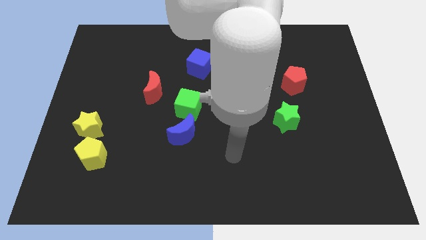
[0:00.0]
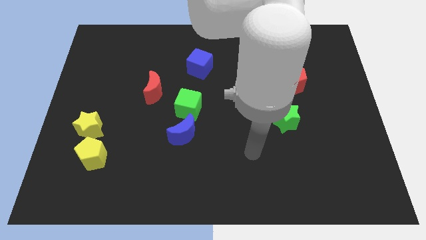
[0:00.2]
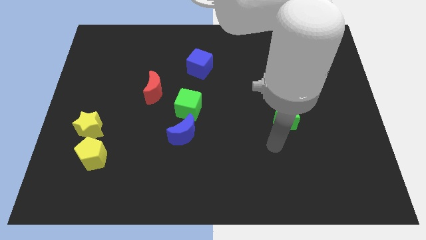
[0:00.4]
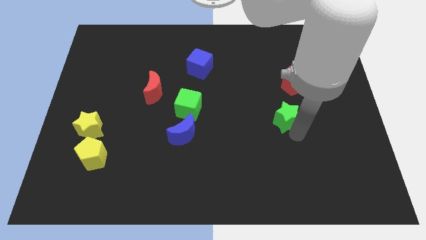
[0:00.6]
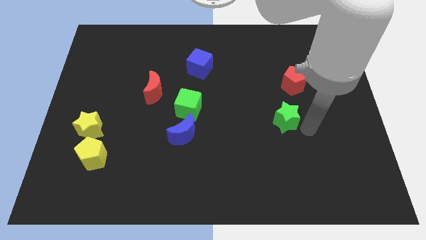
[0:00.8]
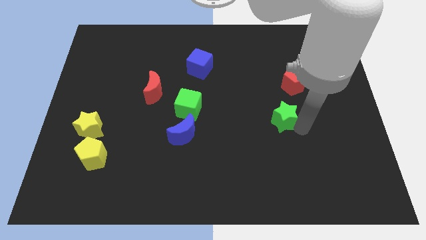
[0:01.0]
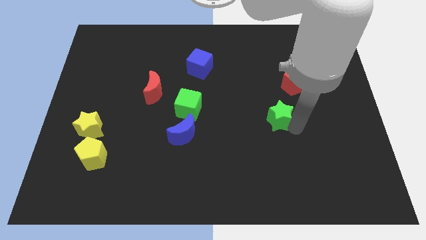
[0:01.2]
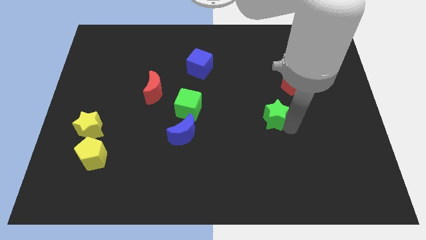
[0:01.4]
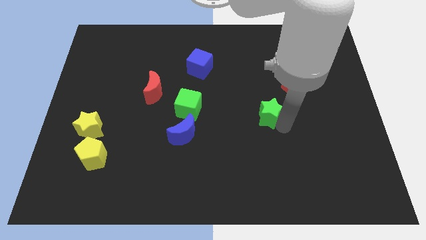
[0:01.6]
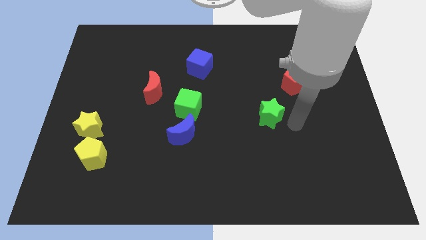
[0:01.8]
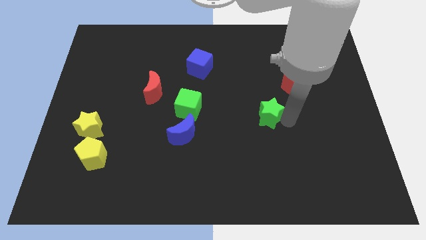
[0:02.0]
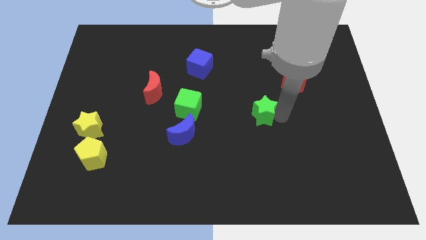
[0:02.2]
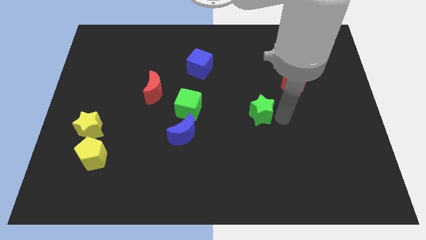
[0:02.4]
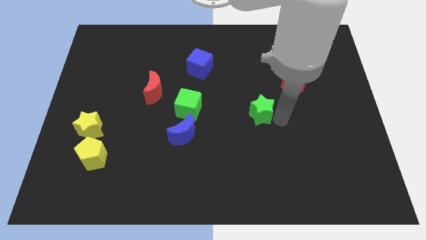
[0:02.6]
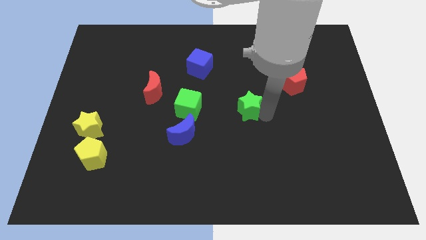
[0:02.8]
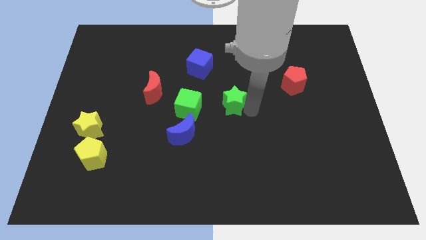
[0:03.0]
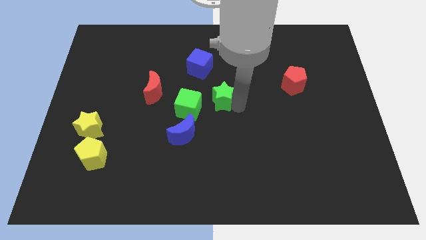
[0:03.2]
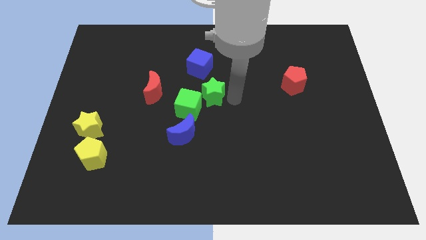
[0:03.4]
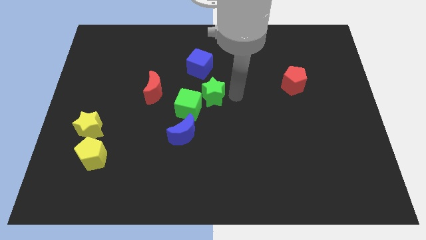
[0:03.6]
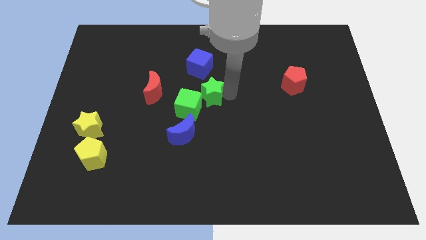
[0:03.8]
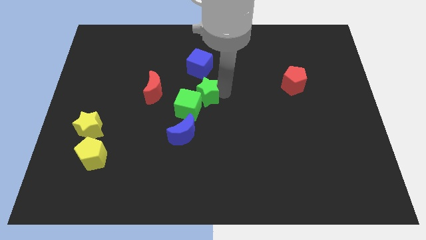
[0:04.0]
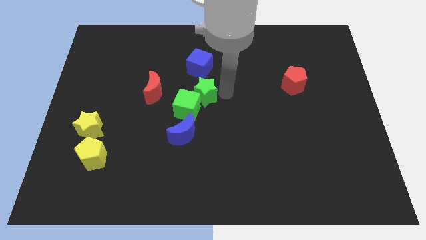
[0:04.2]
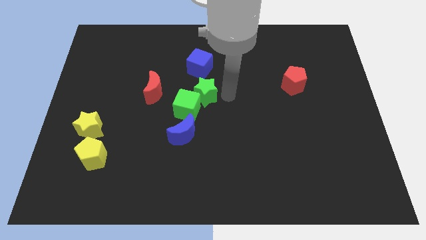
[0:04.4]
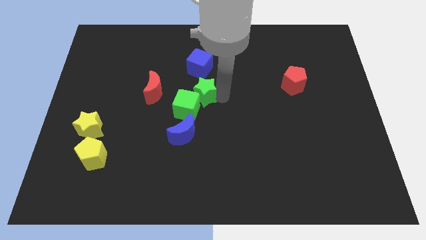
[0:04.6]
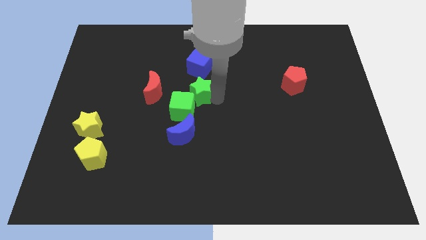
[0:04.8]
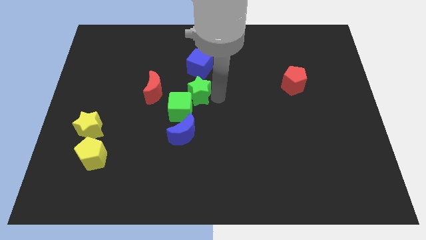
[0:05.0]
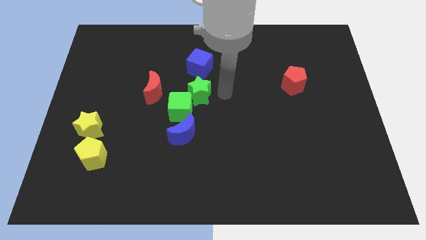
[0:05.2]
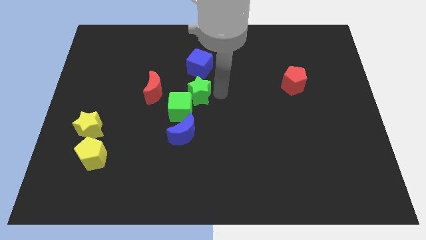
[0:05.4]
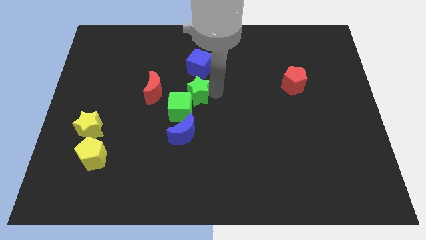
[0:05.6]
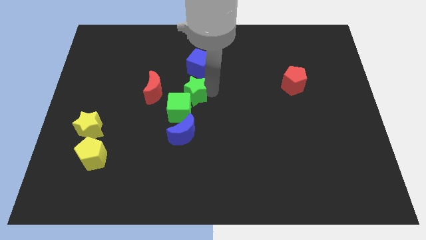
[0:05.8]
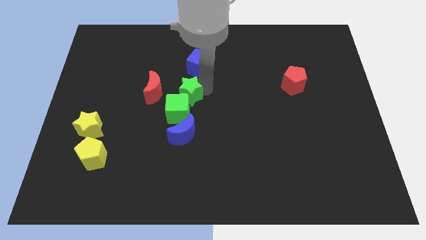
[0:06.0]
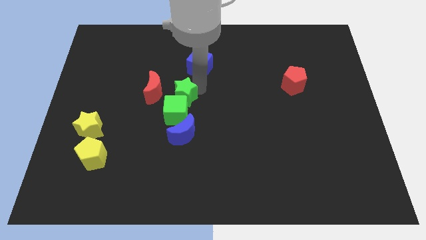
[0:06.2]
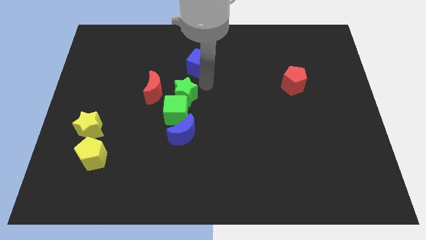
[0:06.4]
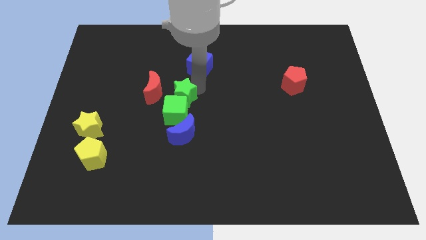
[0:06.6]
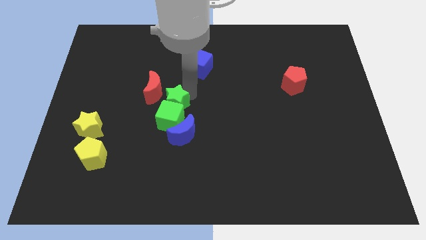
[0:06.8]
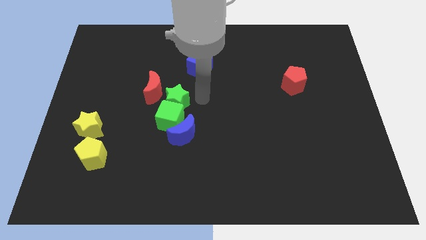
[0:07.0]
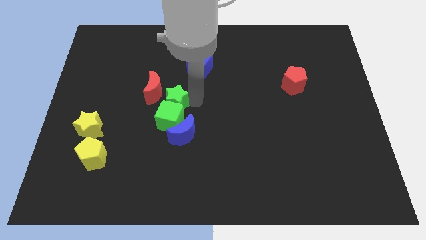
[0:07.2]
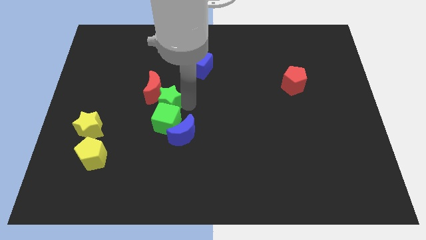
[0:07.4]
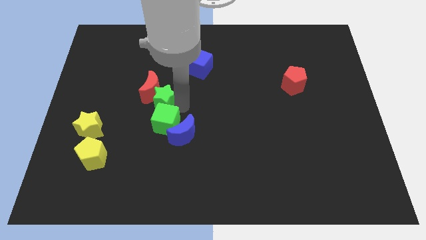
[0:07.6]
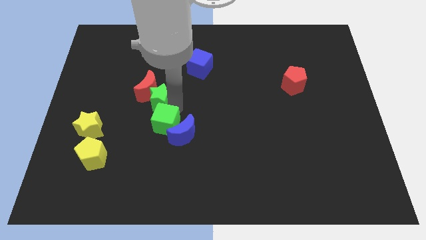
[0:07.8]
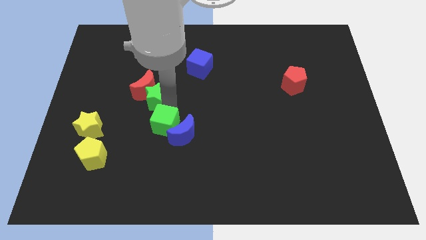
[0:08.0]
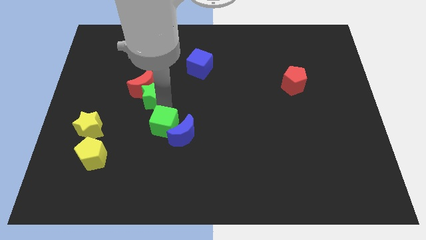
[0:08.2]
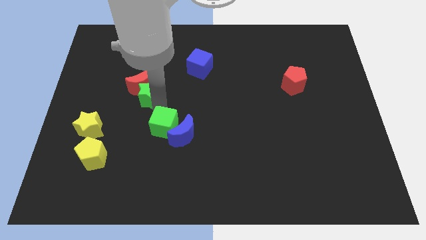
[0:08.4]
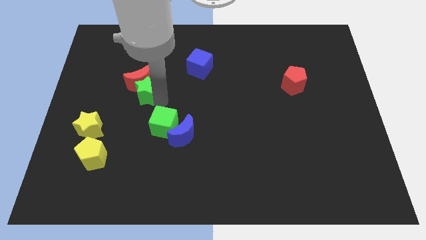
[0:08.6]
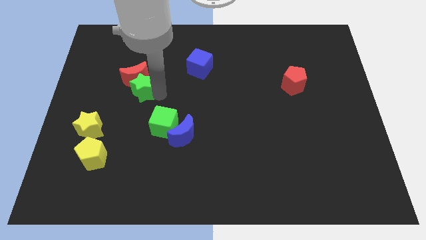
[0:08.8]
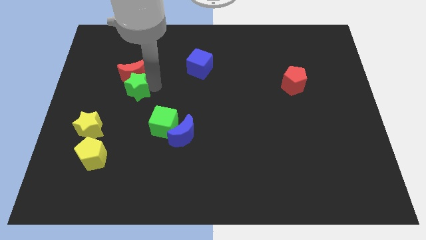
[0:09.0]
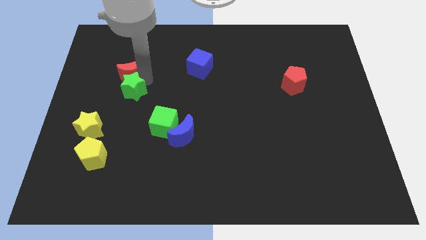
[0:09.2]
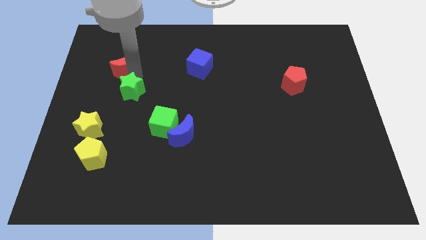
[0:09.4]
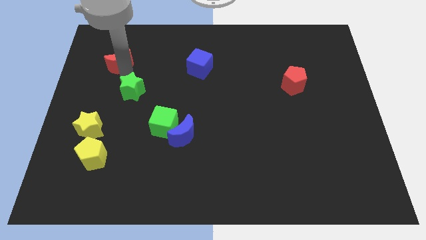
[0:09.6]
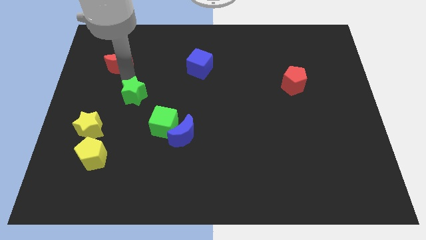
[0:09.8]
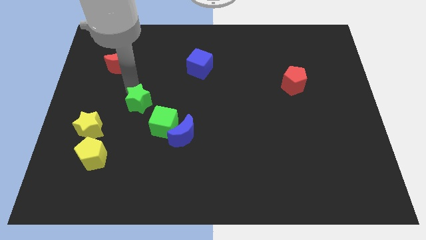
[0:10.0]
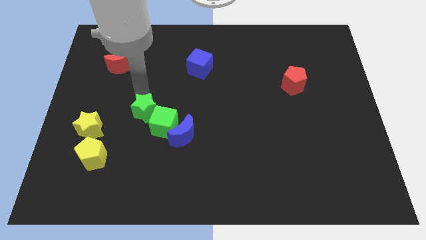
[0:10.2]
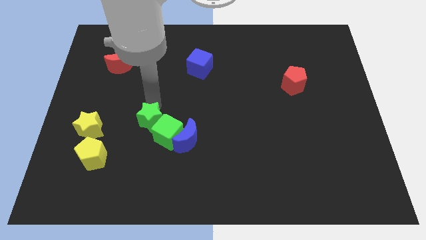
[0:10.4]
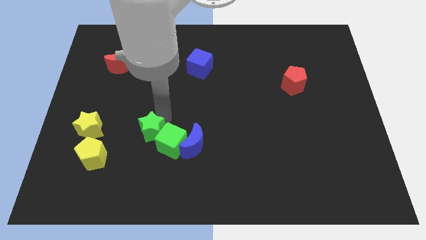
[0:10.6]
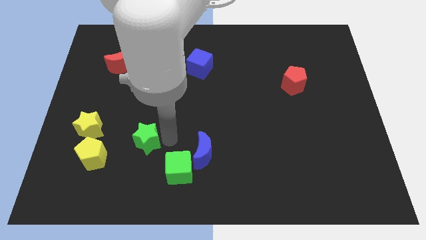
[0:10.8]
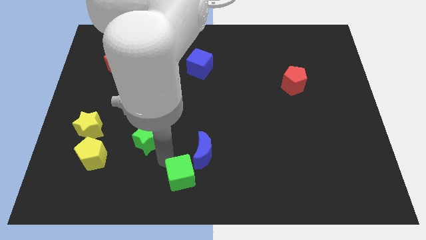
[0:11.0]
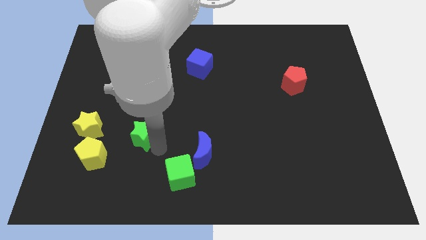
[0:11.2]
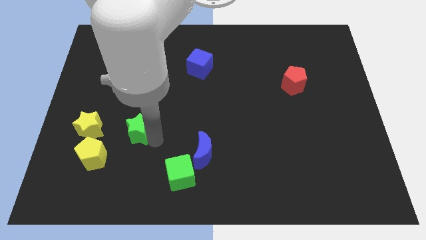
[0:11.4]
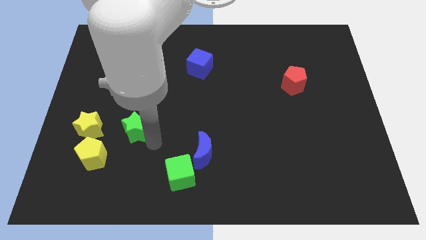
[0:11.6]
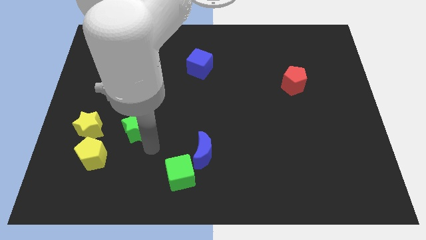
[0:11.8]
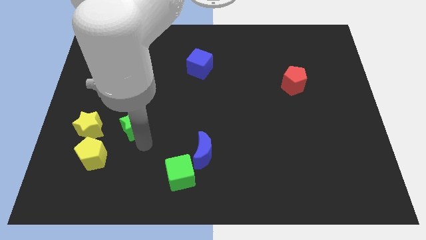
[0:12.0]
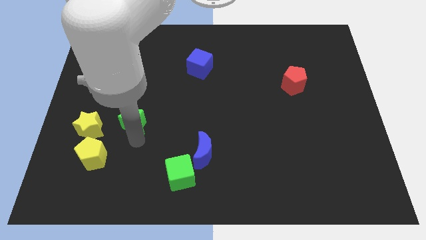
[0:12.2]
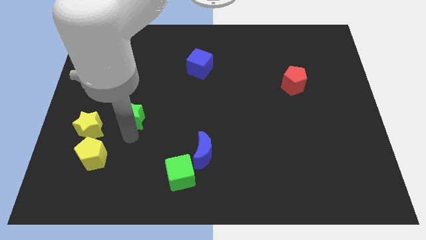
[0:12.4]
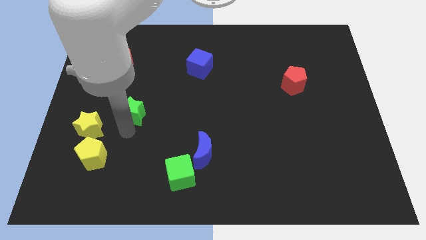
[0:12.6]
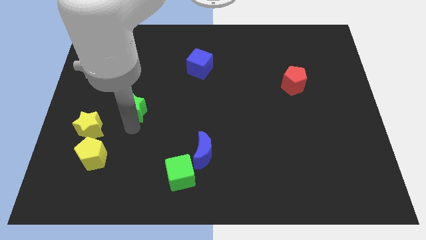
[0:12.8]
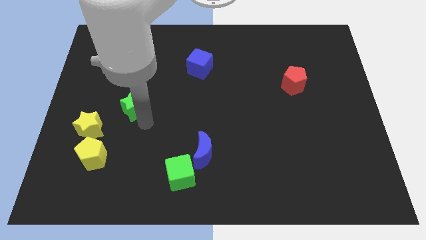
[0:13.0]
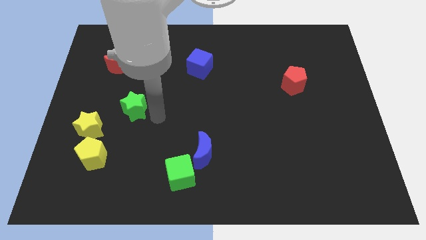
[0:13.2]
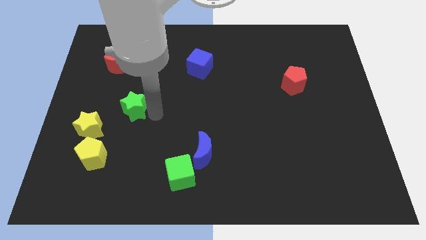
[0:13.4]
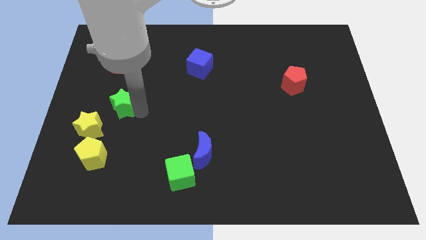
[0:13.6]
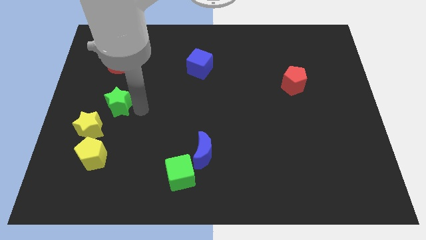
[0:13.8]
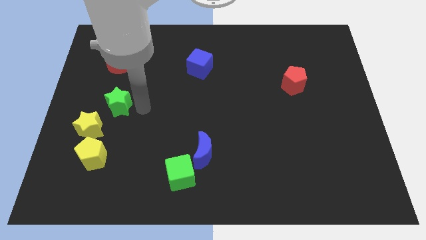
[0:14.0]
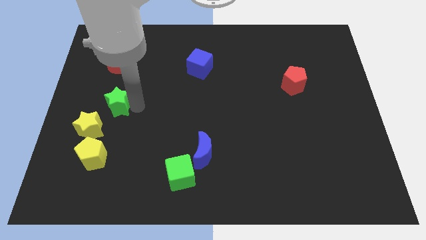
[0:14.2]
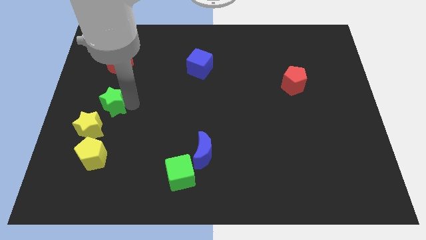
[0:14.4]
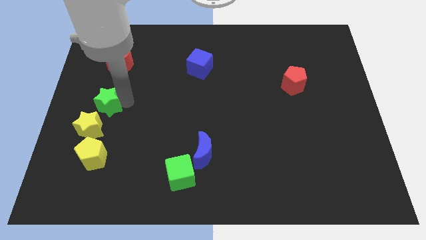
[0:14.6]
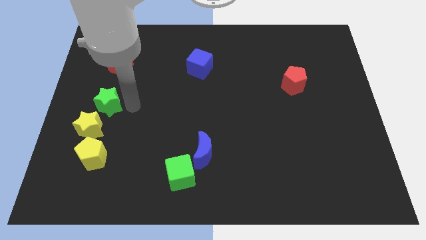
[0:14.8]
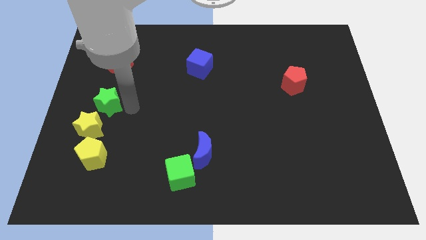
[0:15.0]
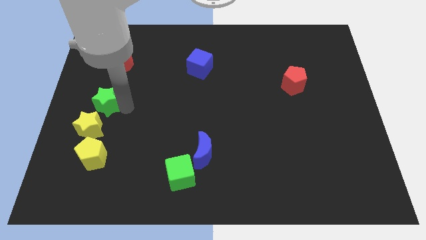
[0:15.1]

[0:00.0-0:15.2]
put the green star to the center left
